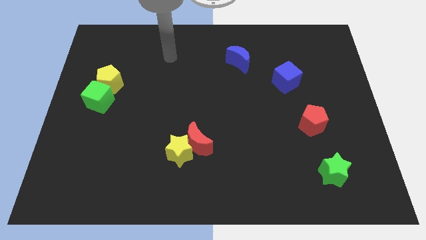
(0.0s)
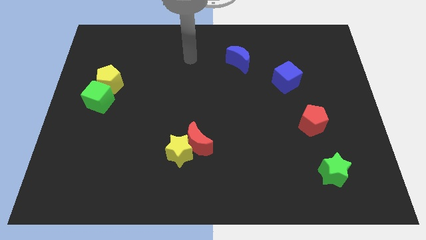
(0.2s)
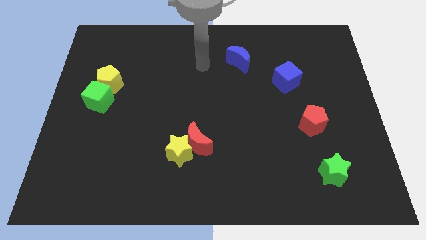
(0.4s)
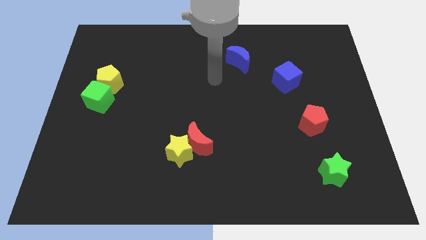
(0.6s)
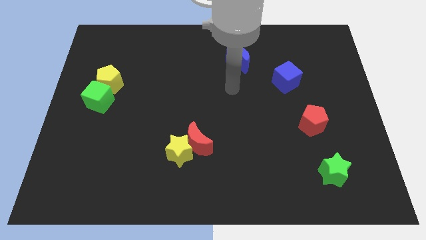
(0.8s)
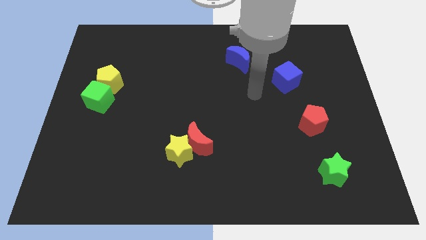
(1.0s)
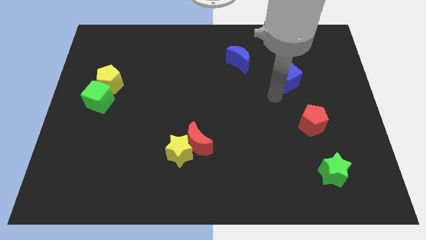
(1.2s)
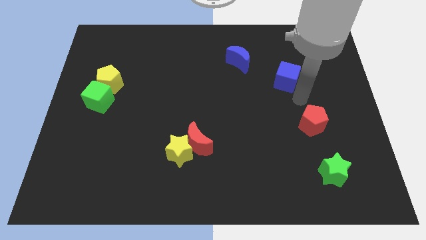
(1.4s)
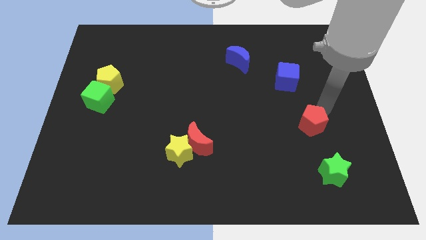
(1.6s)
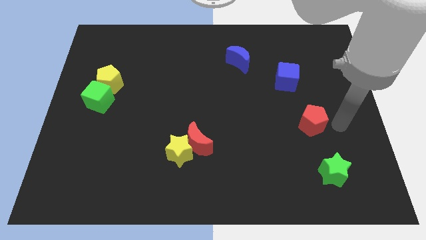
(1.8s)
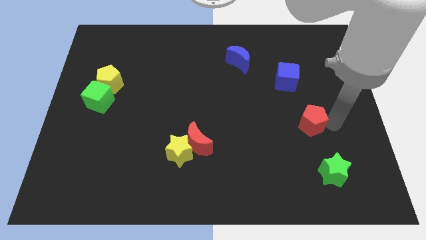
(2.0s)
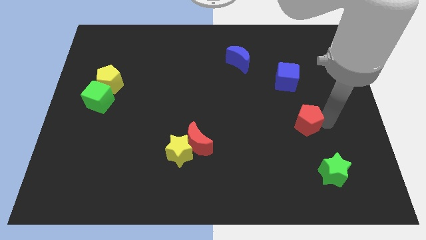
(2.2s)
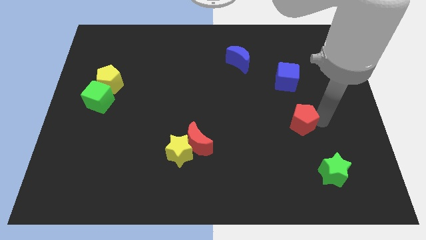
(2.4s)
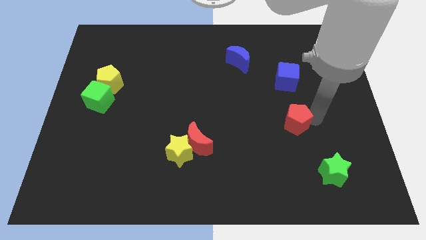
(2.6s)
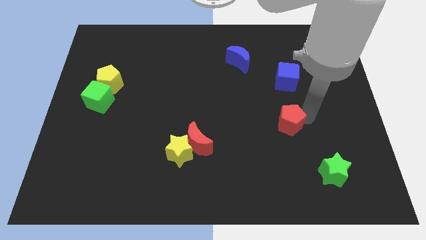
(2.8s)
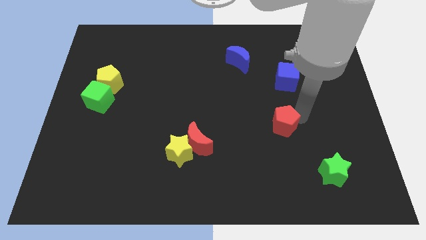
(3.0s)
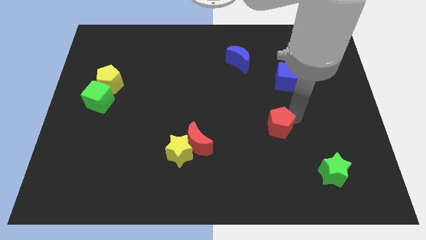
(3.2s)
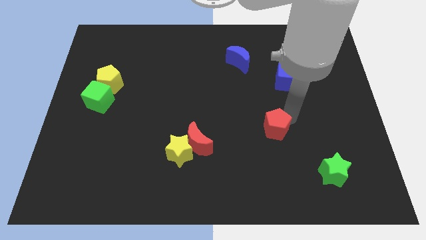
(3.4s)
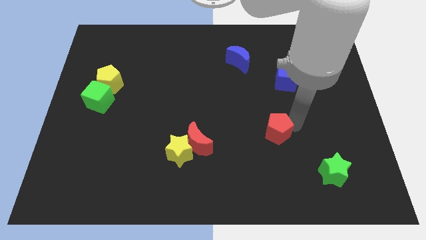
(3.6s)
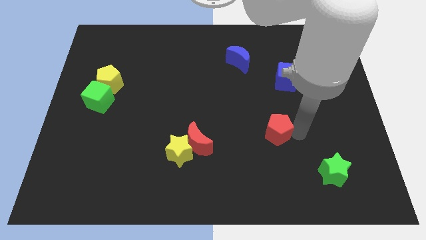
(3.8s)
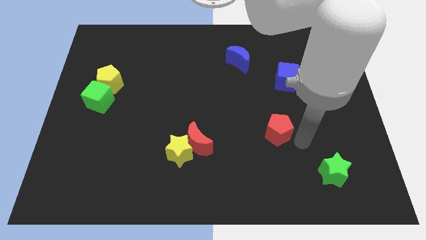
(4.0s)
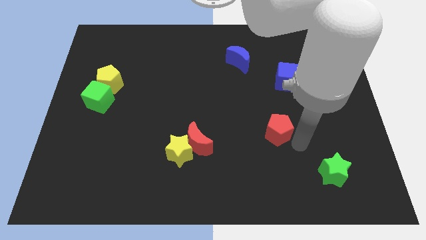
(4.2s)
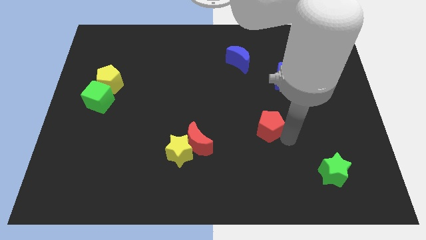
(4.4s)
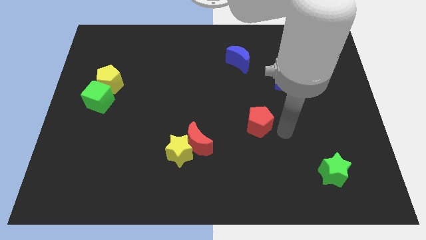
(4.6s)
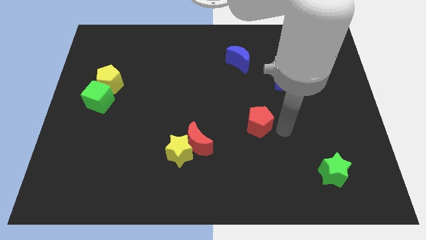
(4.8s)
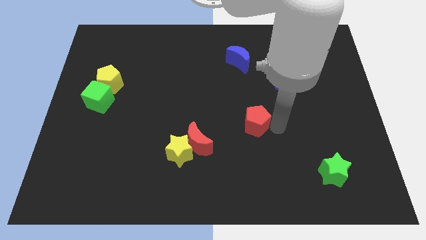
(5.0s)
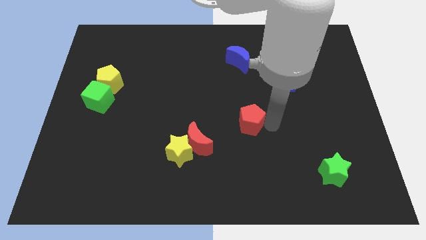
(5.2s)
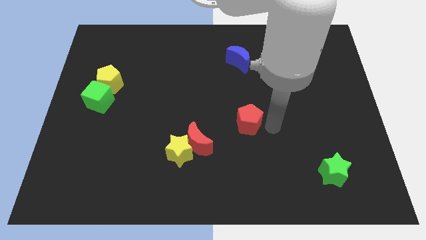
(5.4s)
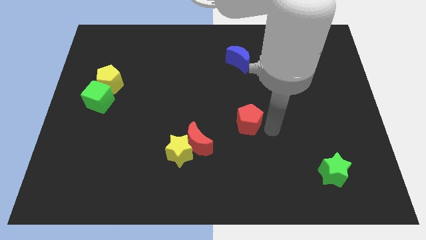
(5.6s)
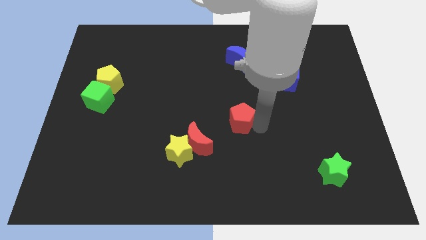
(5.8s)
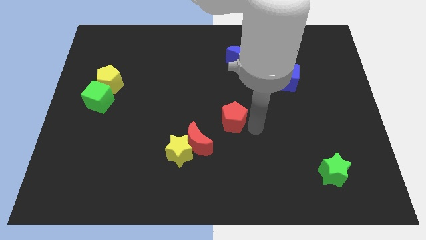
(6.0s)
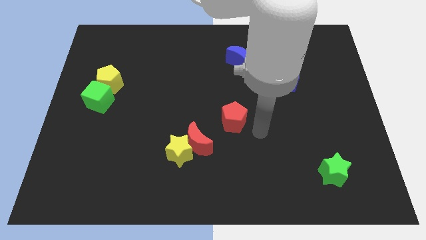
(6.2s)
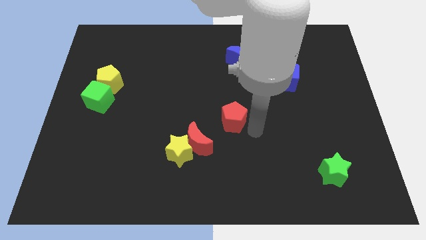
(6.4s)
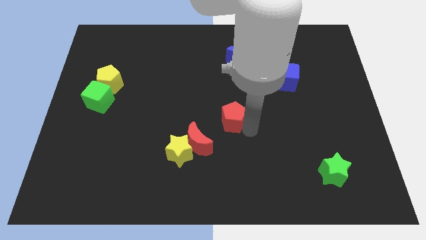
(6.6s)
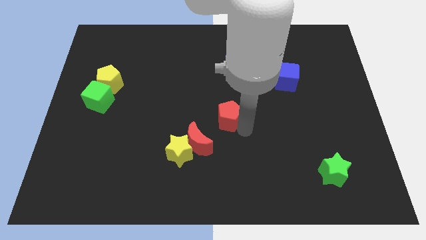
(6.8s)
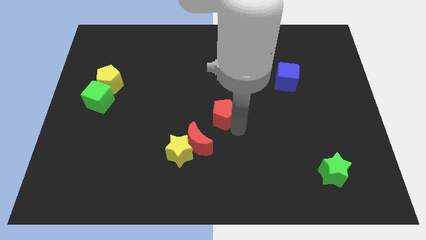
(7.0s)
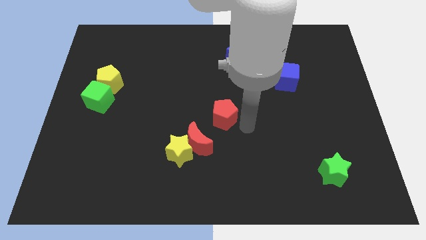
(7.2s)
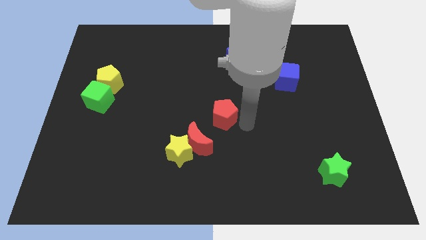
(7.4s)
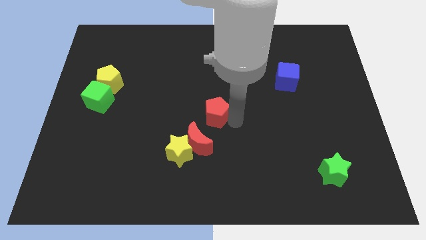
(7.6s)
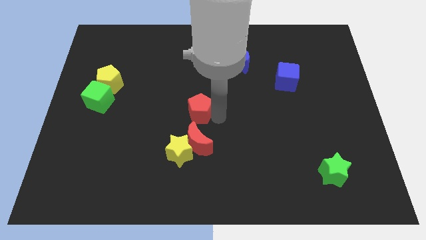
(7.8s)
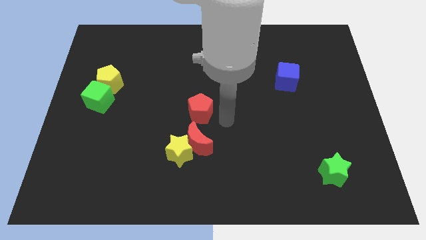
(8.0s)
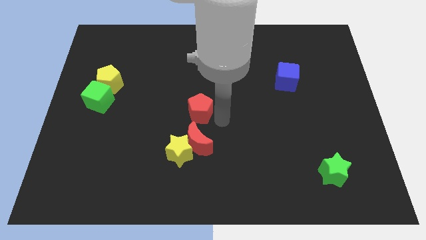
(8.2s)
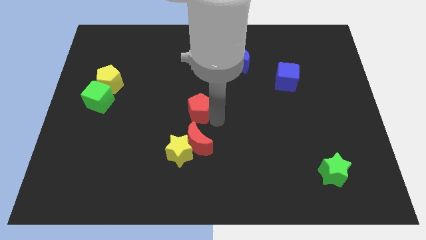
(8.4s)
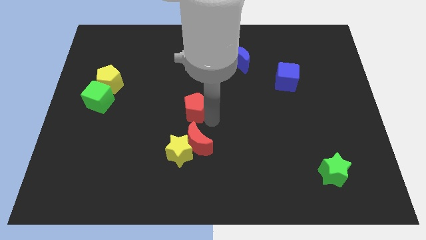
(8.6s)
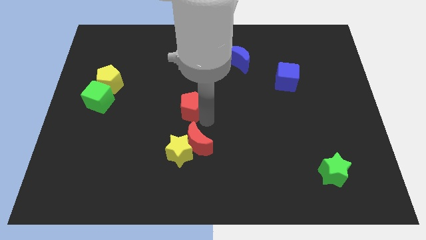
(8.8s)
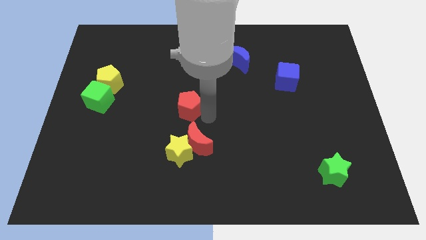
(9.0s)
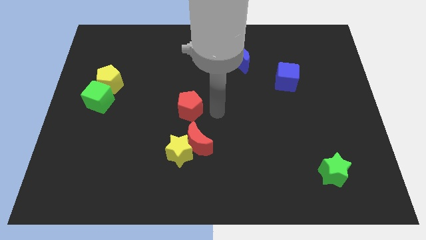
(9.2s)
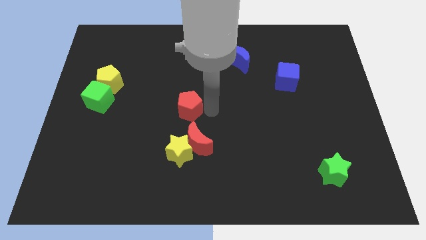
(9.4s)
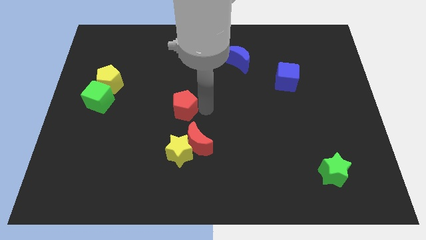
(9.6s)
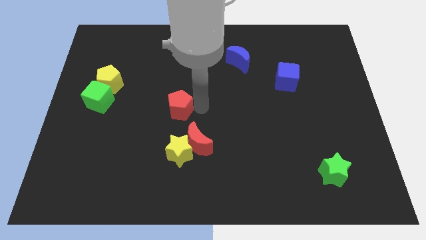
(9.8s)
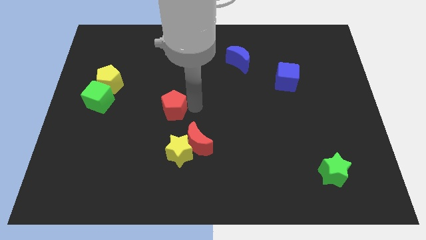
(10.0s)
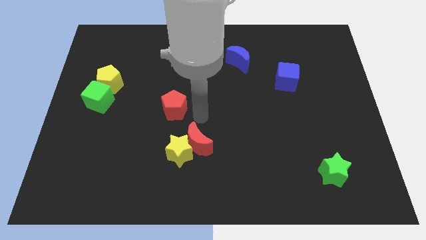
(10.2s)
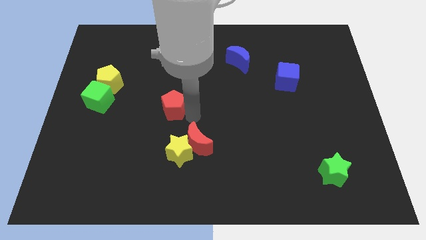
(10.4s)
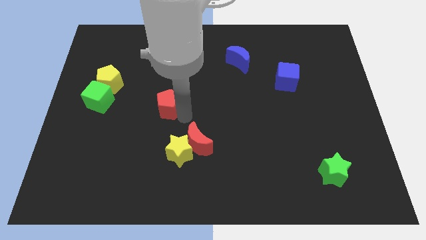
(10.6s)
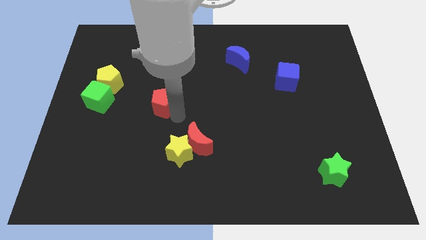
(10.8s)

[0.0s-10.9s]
push the red pentagon right of the green cube

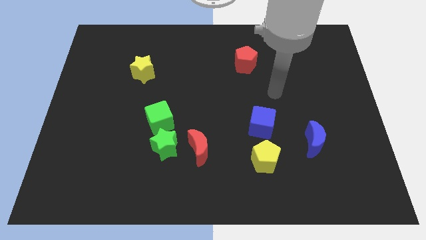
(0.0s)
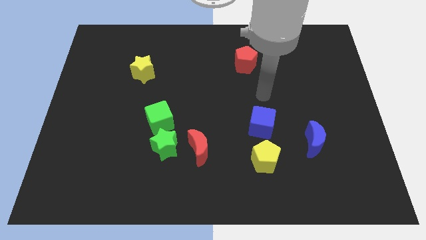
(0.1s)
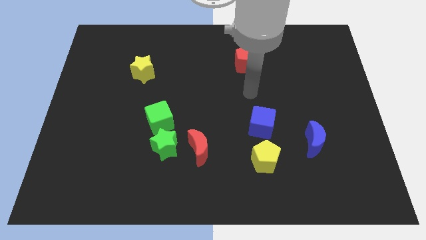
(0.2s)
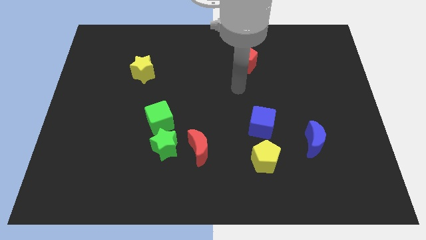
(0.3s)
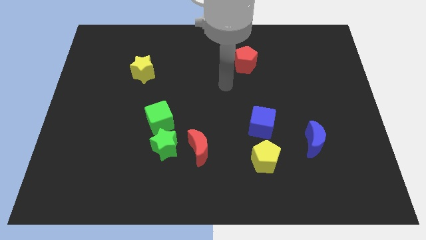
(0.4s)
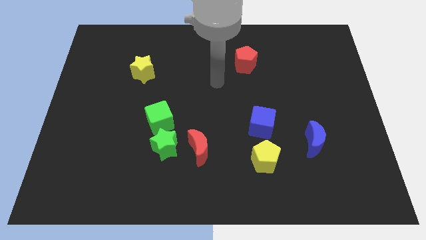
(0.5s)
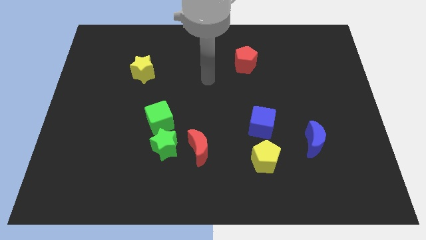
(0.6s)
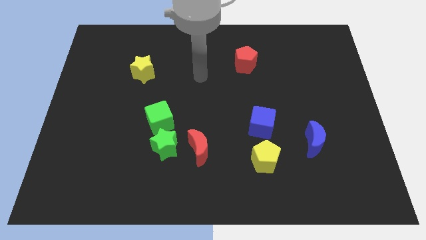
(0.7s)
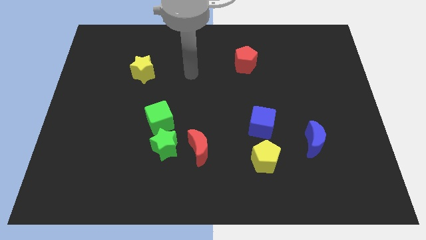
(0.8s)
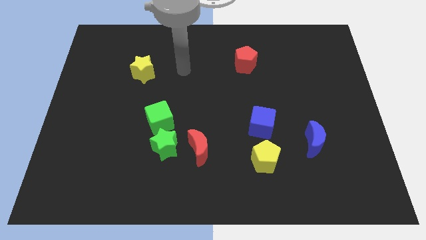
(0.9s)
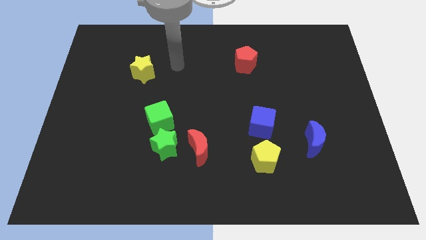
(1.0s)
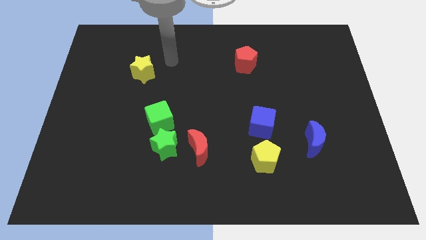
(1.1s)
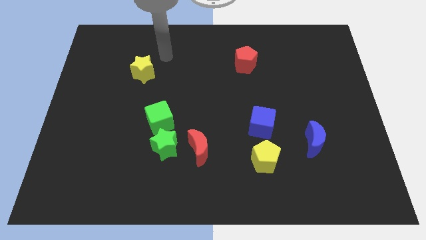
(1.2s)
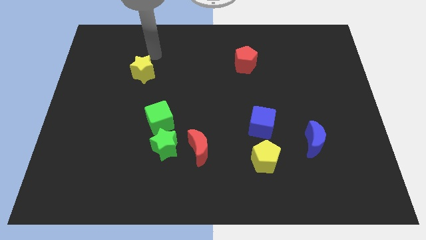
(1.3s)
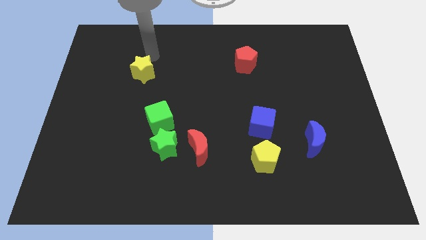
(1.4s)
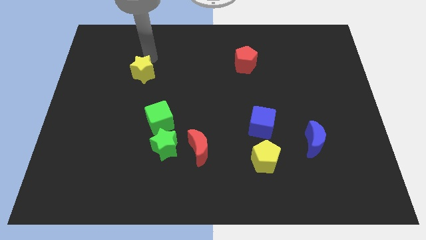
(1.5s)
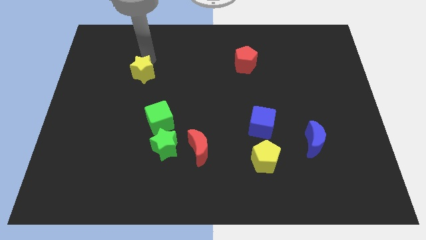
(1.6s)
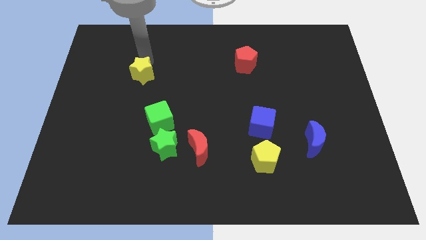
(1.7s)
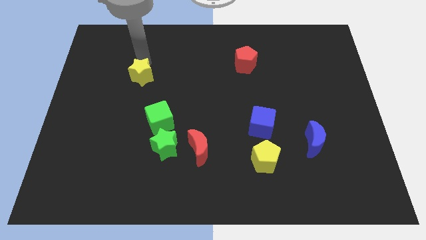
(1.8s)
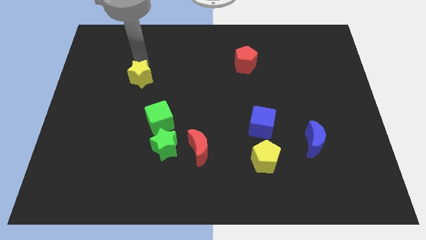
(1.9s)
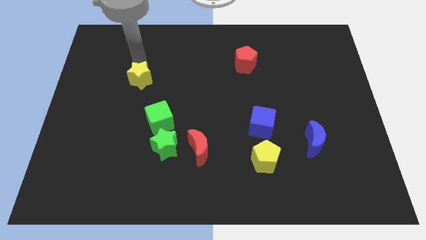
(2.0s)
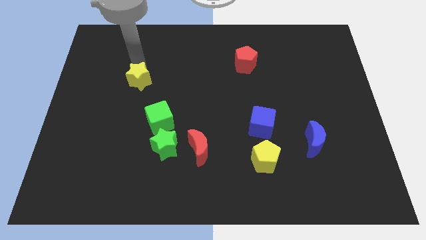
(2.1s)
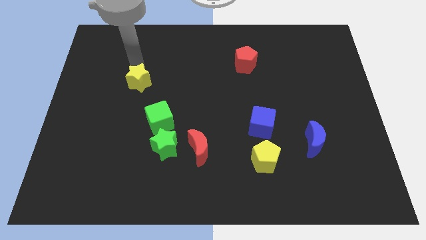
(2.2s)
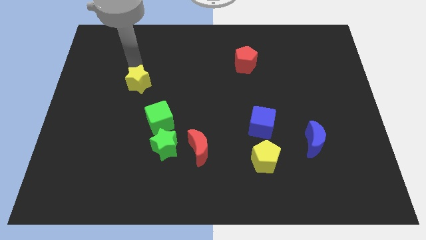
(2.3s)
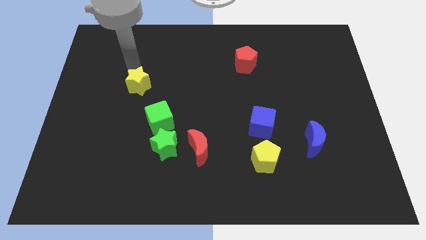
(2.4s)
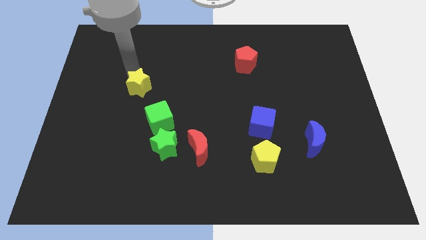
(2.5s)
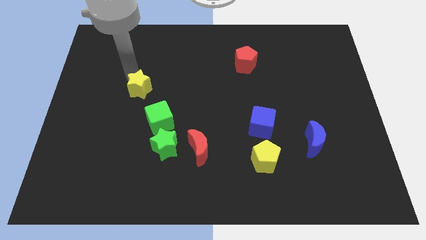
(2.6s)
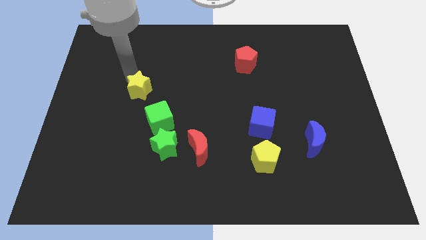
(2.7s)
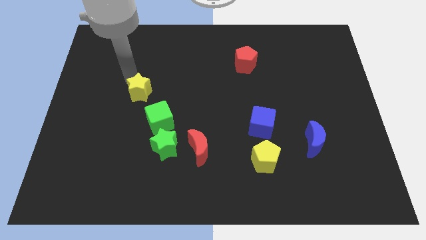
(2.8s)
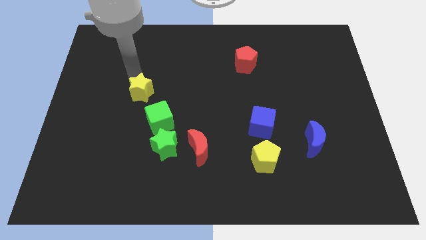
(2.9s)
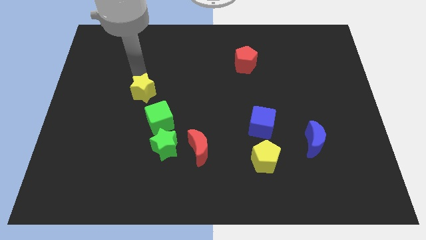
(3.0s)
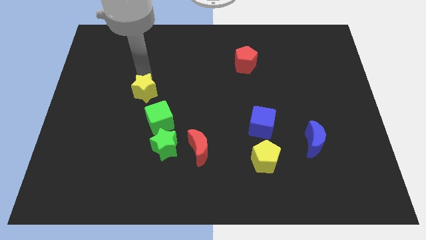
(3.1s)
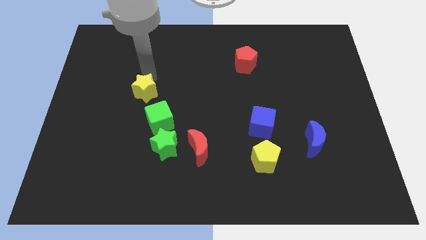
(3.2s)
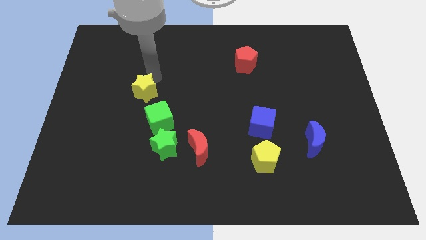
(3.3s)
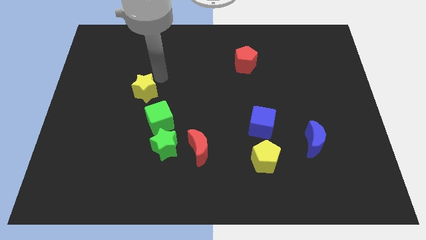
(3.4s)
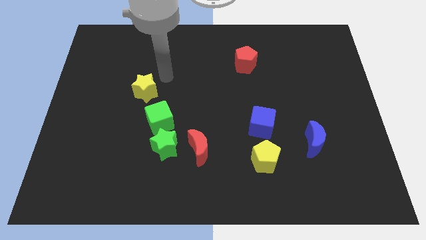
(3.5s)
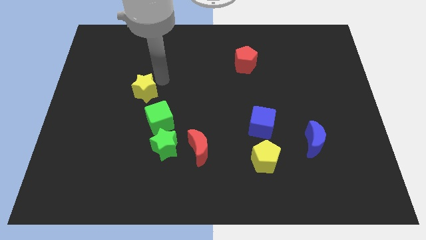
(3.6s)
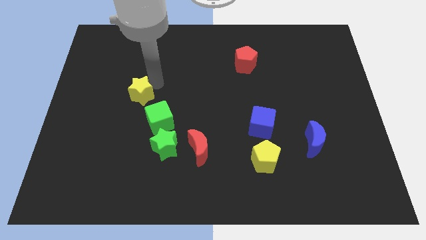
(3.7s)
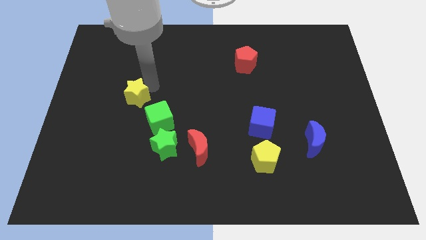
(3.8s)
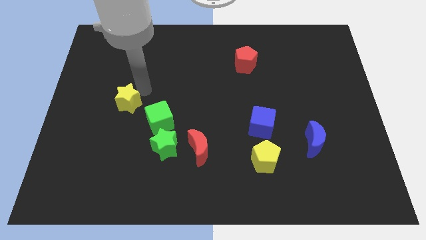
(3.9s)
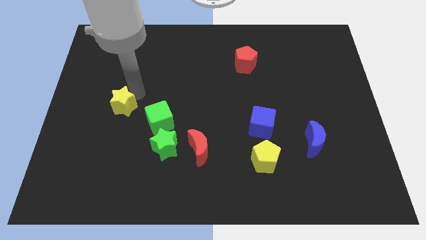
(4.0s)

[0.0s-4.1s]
put the yellow star just left of the green cube
